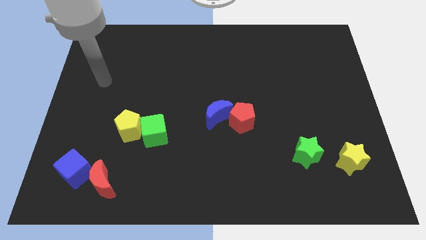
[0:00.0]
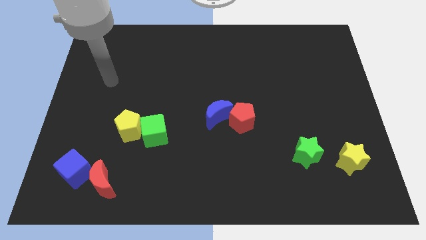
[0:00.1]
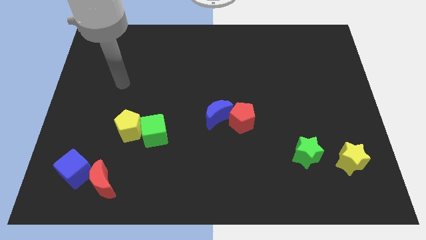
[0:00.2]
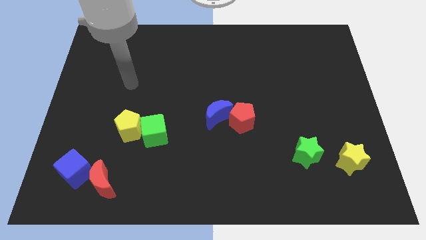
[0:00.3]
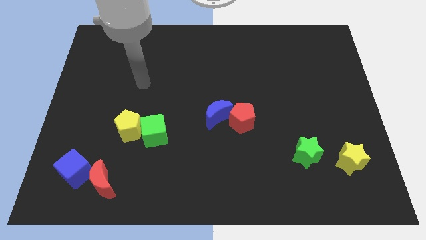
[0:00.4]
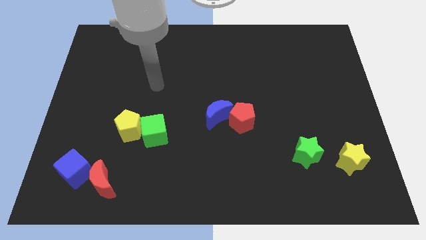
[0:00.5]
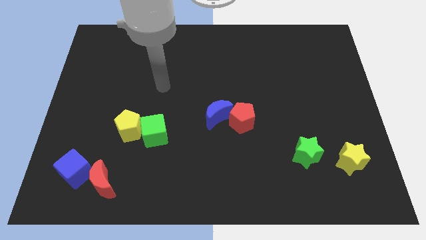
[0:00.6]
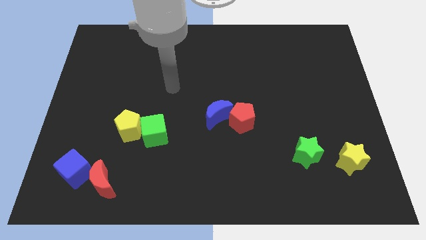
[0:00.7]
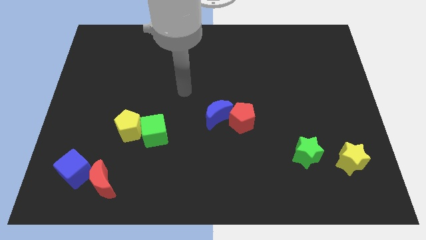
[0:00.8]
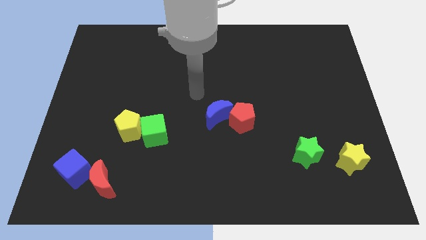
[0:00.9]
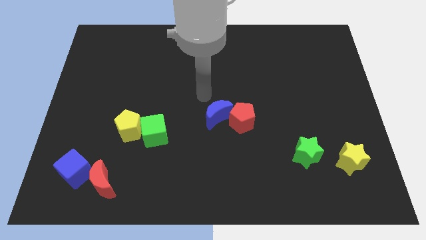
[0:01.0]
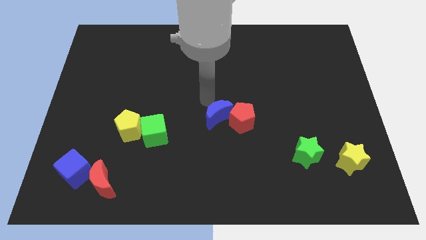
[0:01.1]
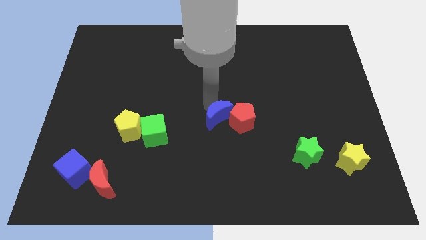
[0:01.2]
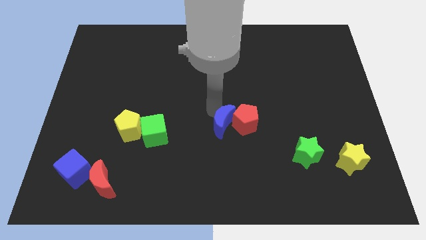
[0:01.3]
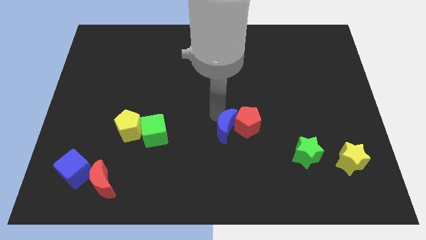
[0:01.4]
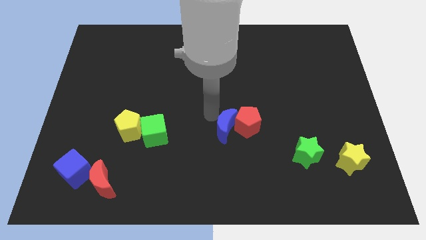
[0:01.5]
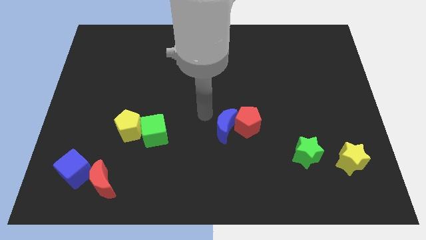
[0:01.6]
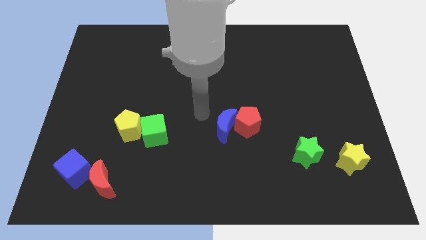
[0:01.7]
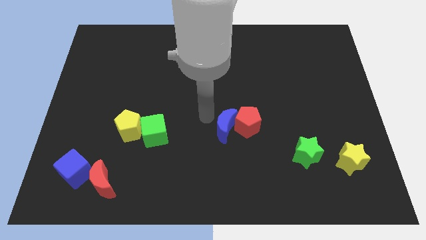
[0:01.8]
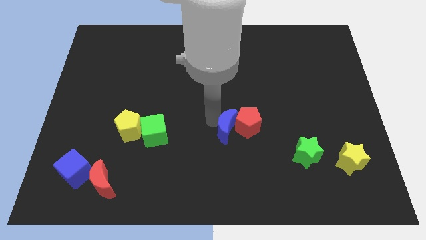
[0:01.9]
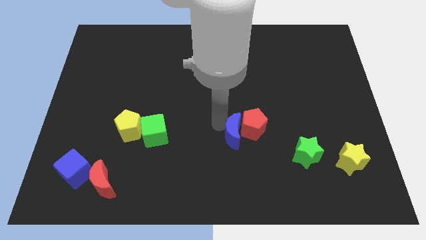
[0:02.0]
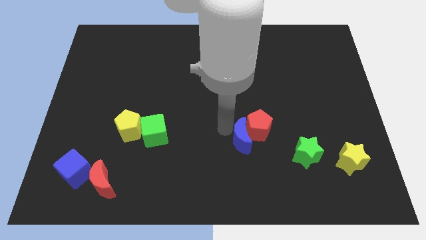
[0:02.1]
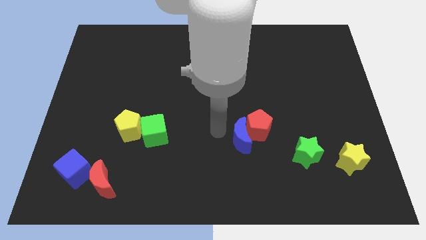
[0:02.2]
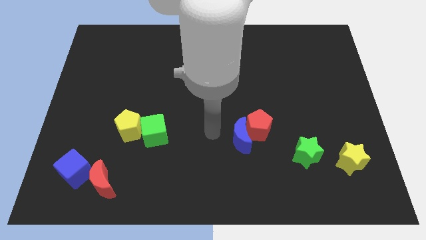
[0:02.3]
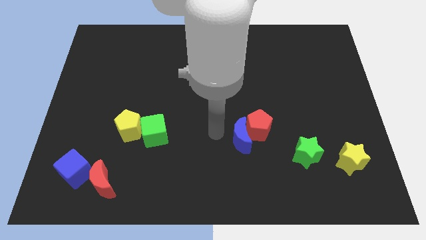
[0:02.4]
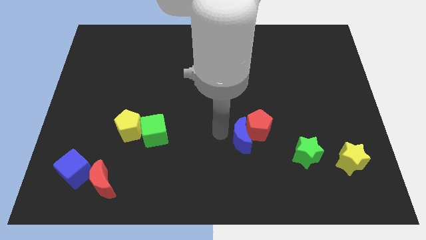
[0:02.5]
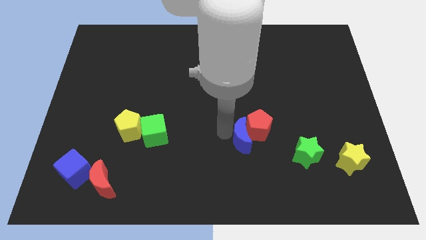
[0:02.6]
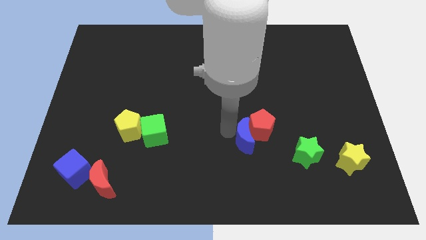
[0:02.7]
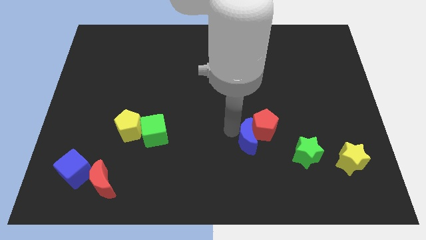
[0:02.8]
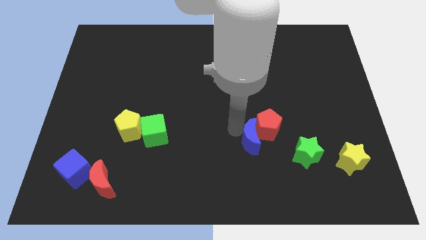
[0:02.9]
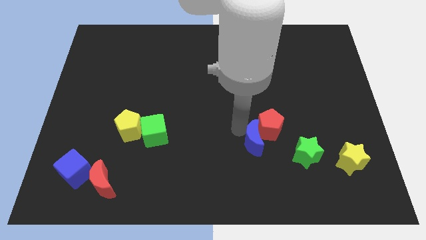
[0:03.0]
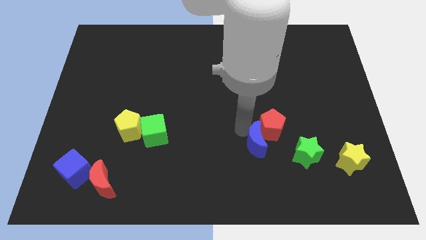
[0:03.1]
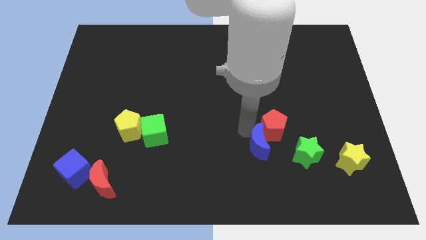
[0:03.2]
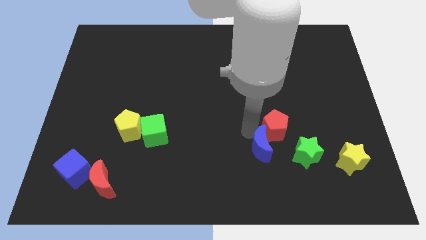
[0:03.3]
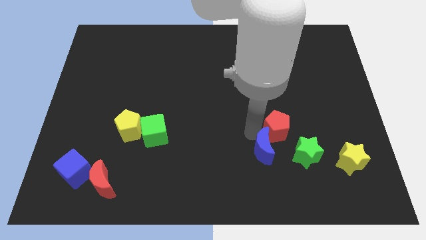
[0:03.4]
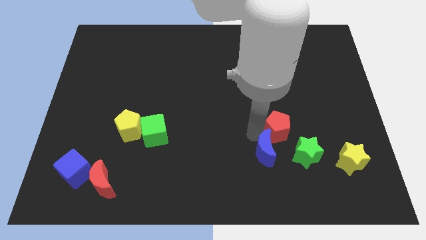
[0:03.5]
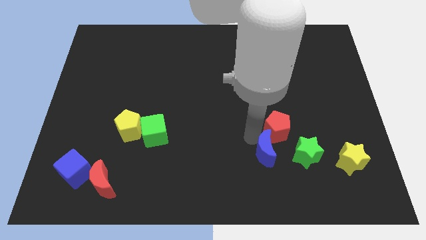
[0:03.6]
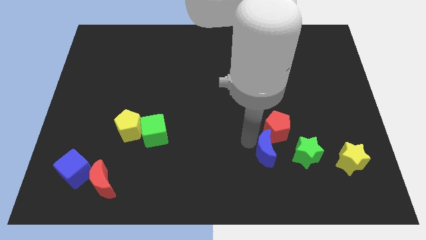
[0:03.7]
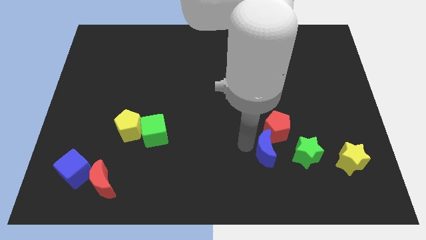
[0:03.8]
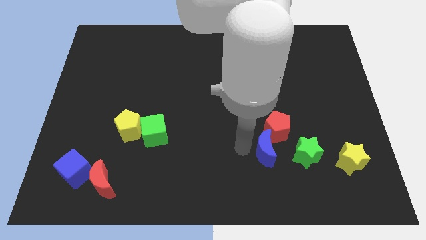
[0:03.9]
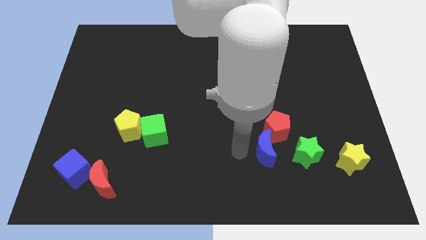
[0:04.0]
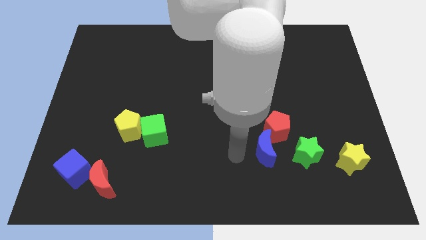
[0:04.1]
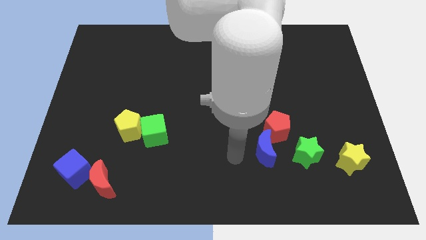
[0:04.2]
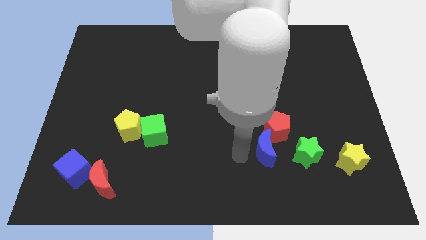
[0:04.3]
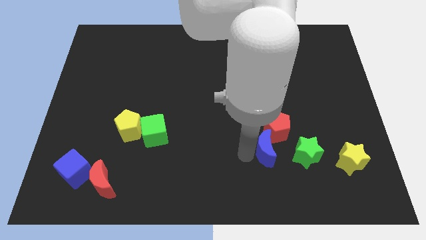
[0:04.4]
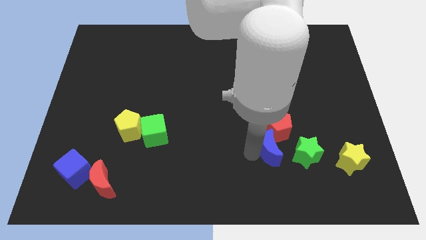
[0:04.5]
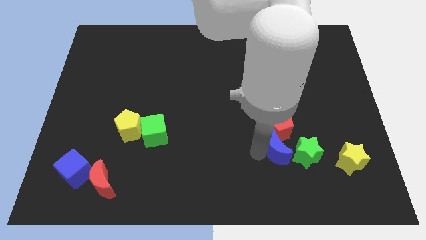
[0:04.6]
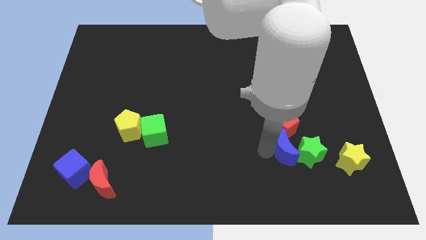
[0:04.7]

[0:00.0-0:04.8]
put the blue moon next to the green star

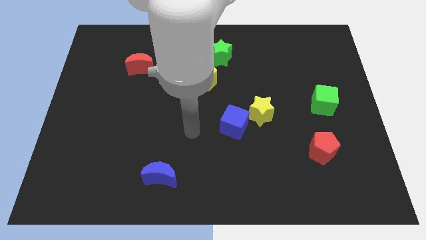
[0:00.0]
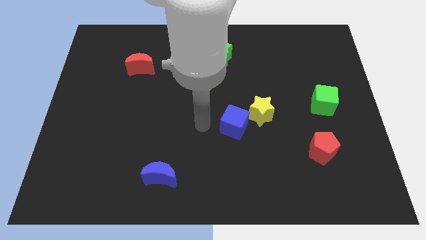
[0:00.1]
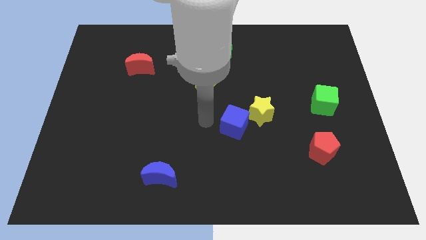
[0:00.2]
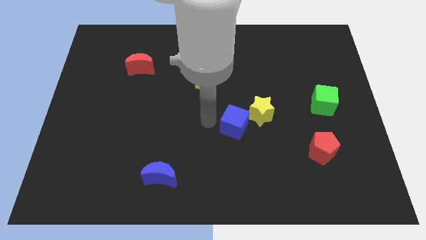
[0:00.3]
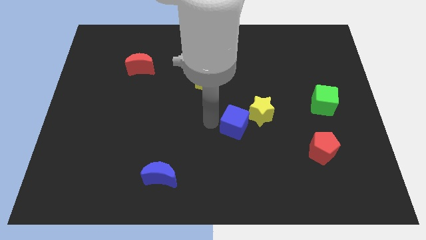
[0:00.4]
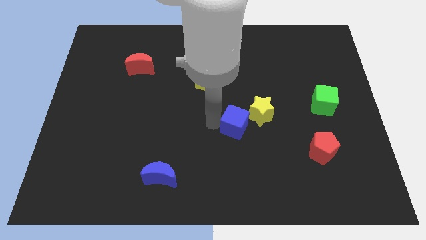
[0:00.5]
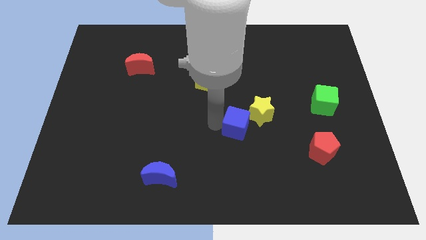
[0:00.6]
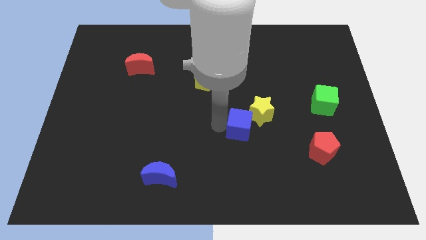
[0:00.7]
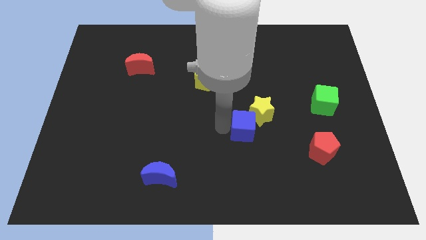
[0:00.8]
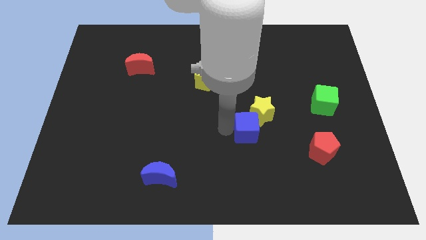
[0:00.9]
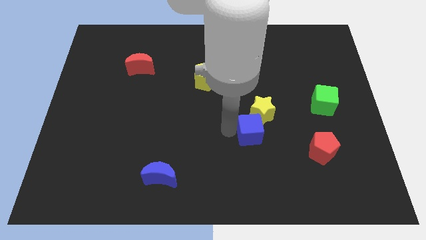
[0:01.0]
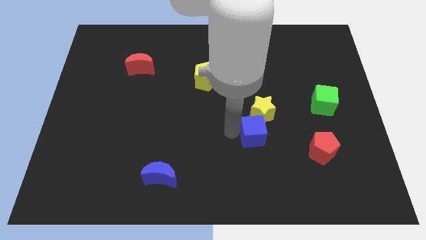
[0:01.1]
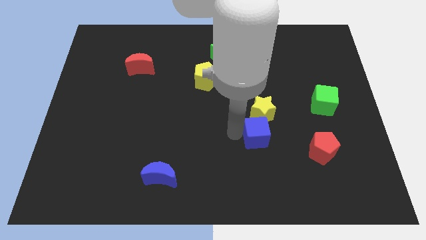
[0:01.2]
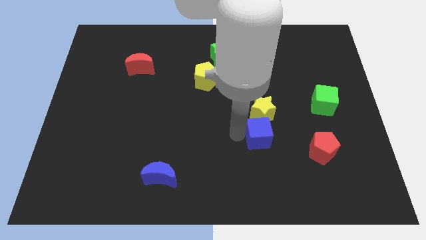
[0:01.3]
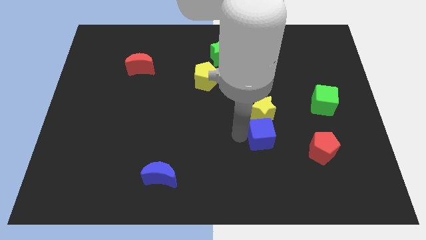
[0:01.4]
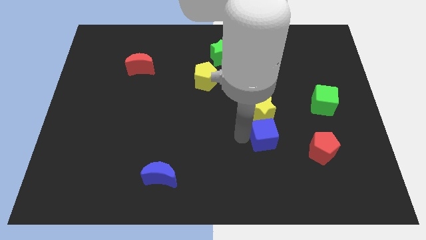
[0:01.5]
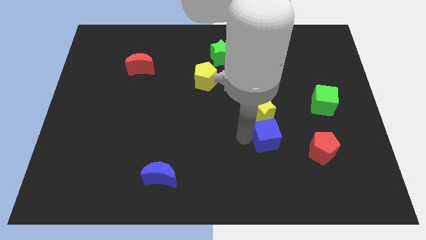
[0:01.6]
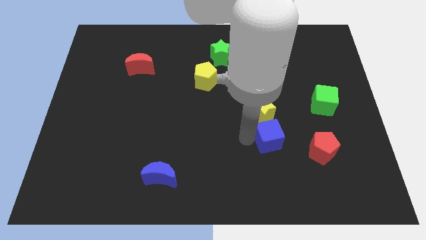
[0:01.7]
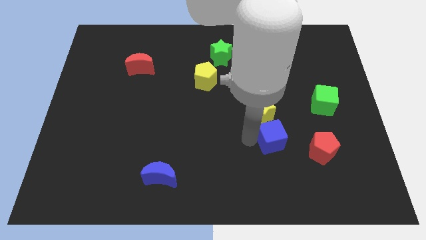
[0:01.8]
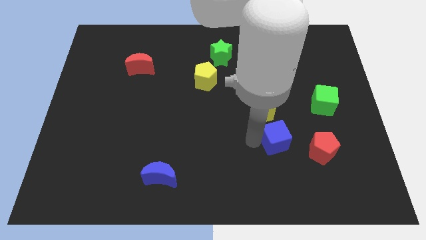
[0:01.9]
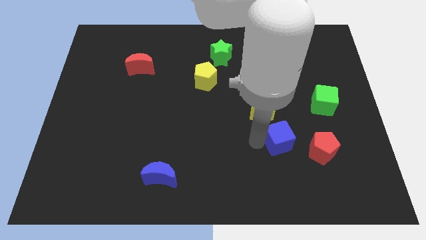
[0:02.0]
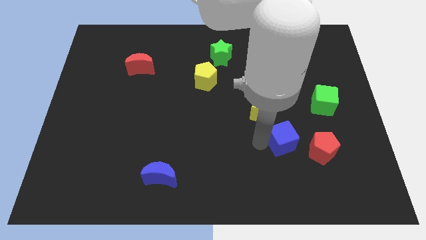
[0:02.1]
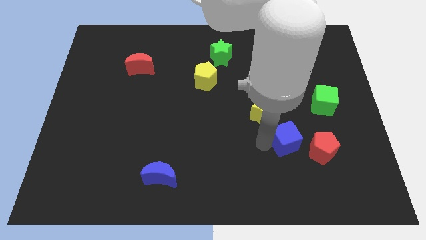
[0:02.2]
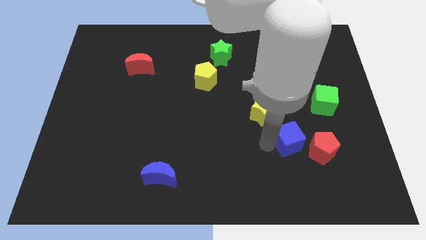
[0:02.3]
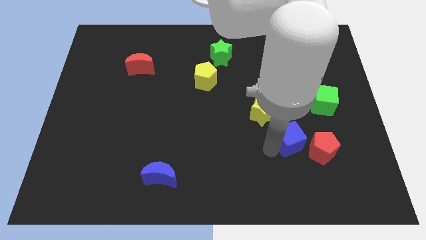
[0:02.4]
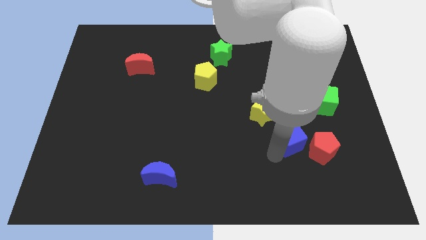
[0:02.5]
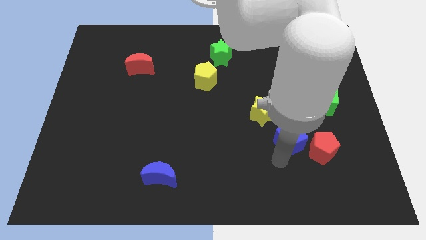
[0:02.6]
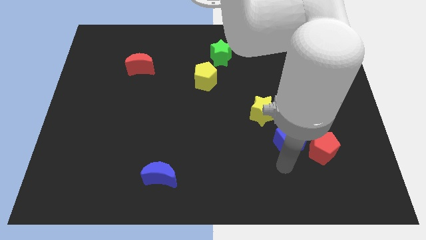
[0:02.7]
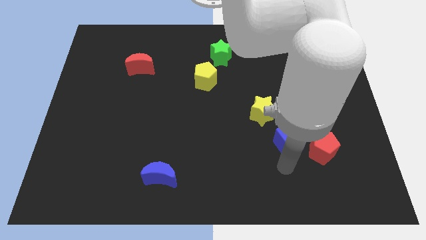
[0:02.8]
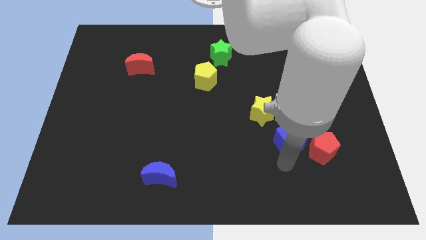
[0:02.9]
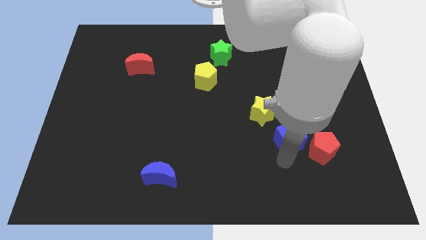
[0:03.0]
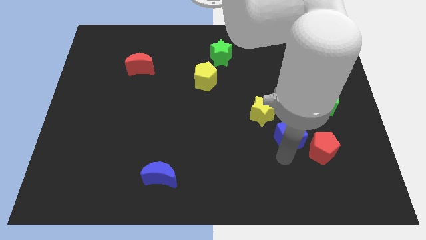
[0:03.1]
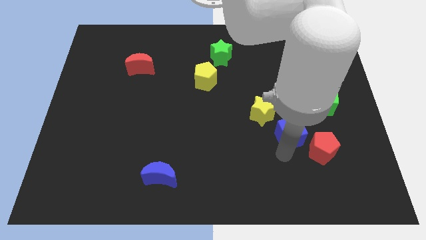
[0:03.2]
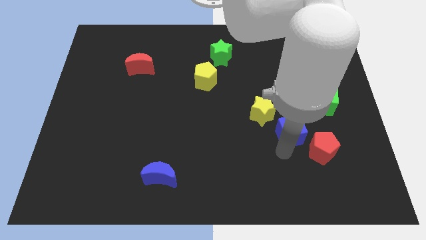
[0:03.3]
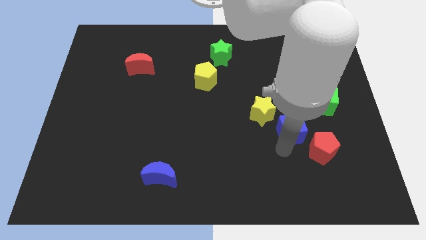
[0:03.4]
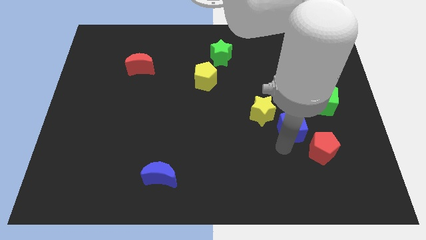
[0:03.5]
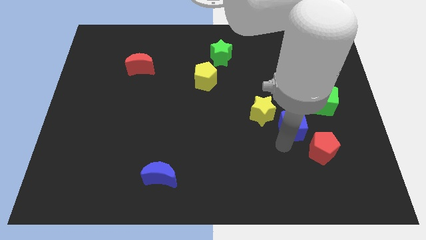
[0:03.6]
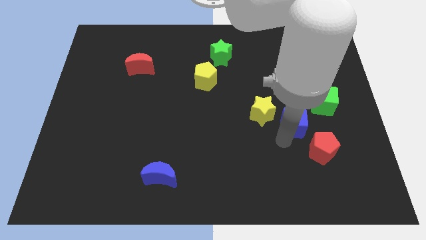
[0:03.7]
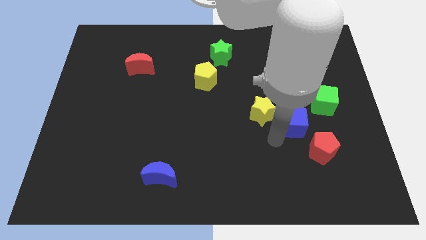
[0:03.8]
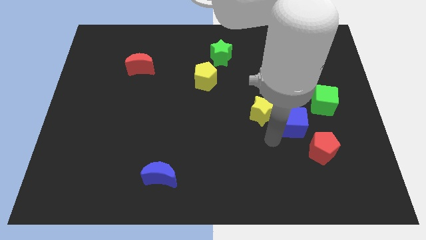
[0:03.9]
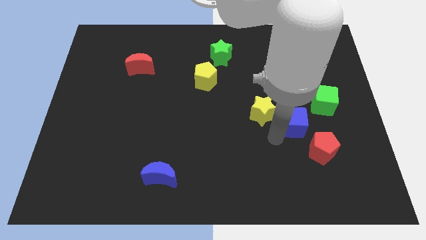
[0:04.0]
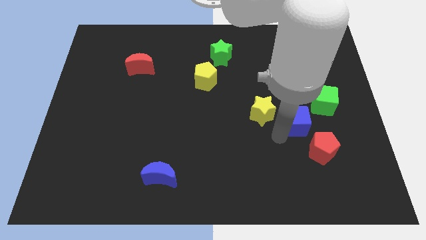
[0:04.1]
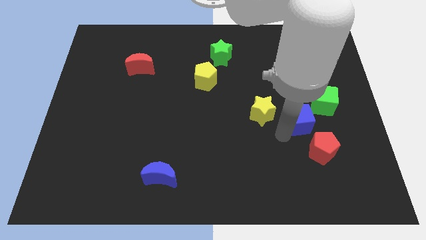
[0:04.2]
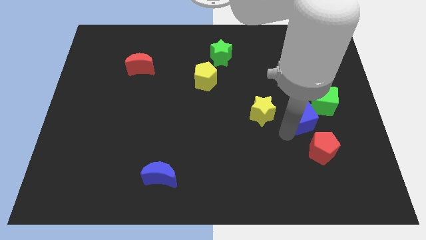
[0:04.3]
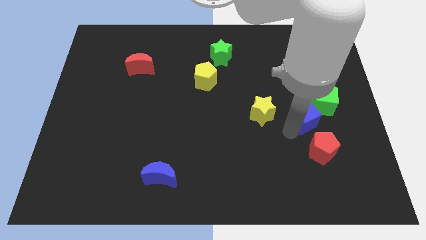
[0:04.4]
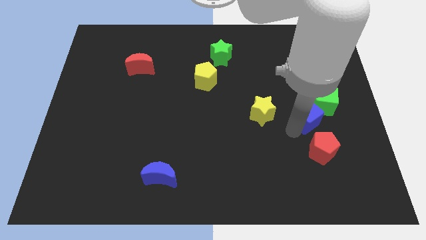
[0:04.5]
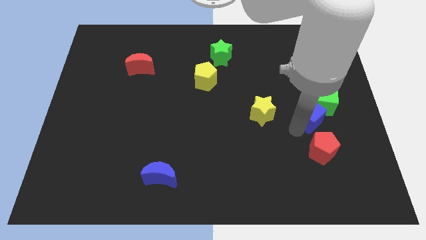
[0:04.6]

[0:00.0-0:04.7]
slide the blue cube to the green cube
